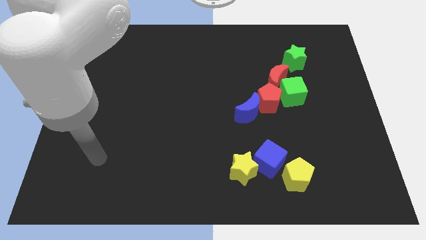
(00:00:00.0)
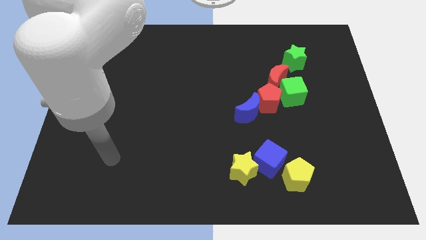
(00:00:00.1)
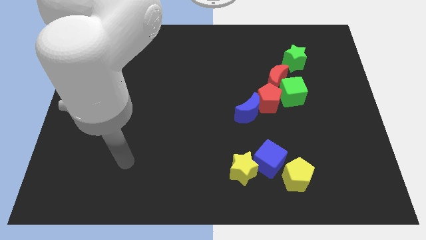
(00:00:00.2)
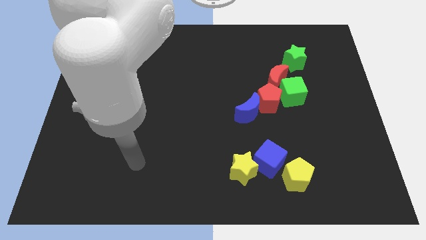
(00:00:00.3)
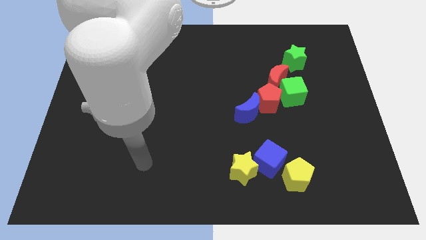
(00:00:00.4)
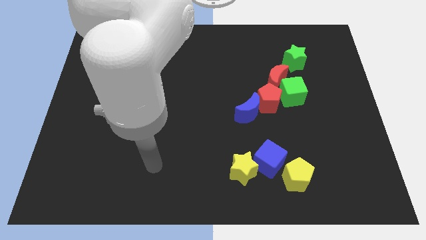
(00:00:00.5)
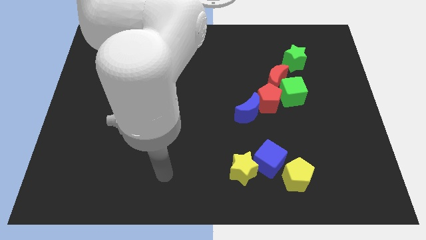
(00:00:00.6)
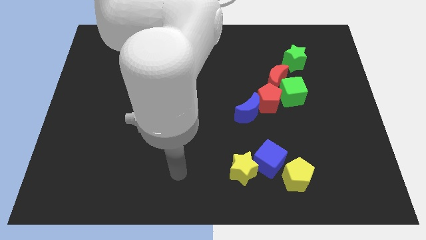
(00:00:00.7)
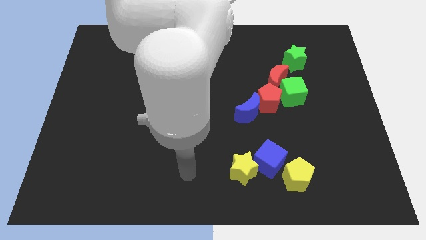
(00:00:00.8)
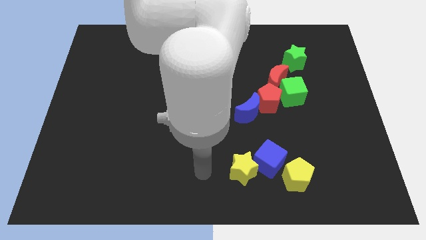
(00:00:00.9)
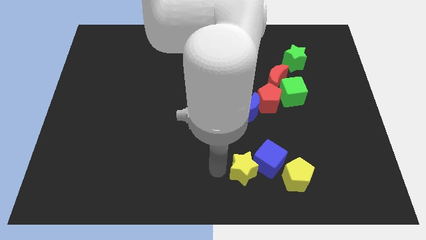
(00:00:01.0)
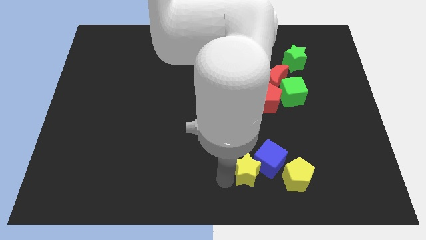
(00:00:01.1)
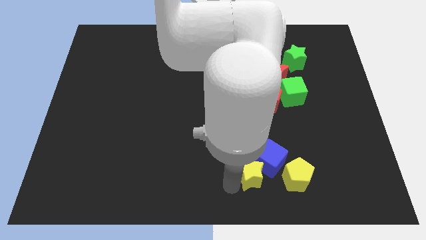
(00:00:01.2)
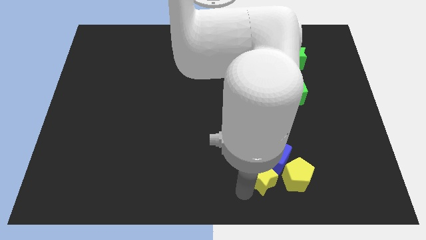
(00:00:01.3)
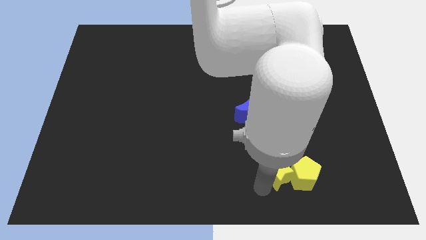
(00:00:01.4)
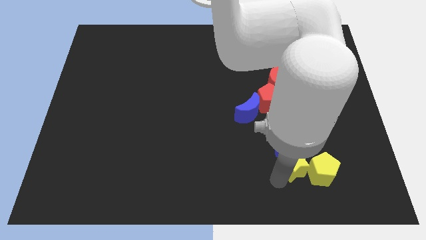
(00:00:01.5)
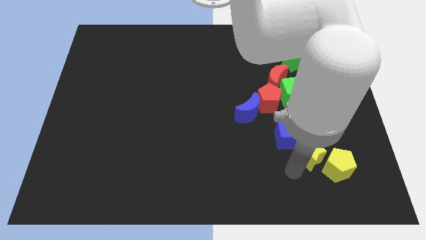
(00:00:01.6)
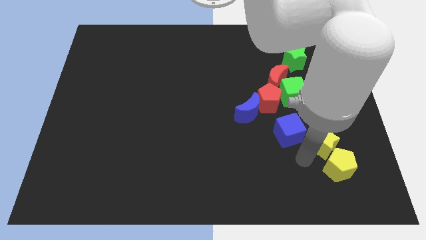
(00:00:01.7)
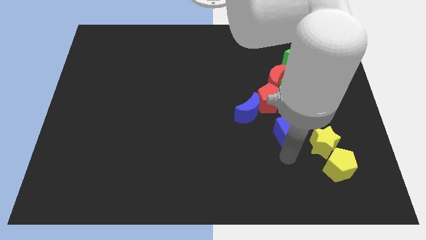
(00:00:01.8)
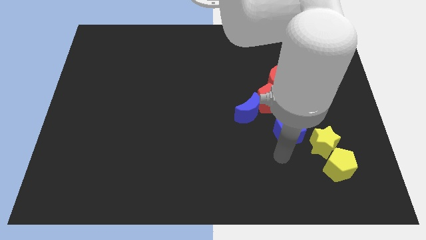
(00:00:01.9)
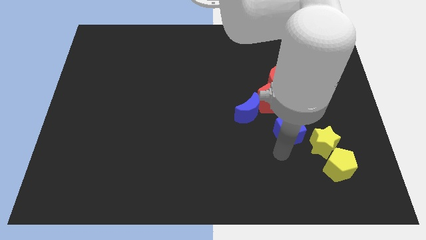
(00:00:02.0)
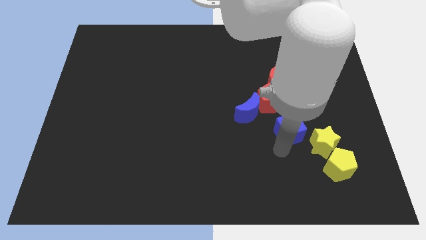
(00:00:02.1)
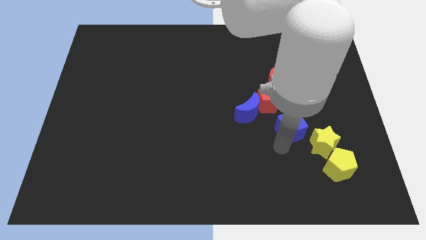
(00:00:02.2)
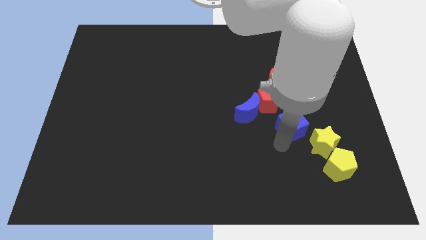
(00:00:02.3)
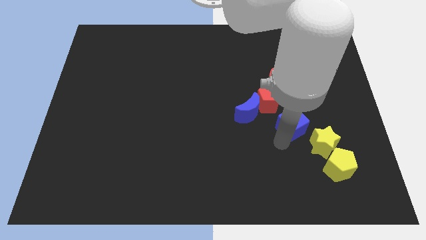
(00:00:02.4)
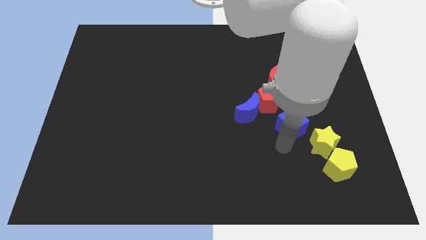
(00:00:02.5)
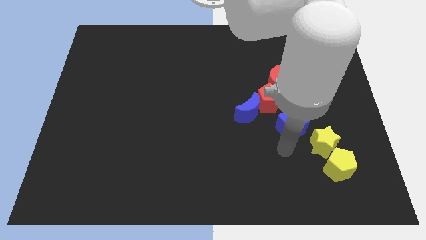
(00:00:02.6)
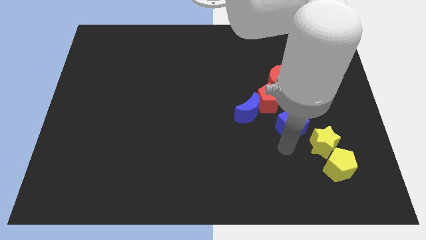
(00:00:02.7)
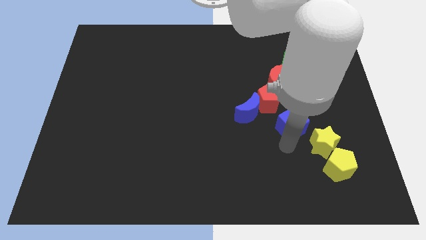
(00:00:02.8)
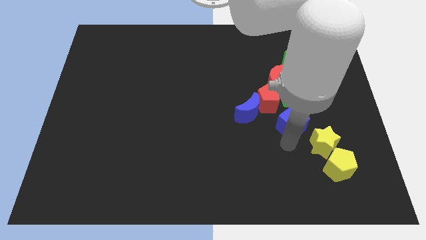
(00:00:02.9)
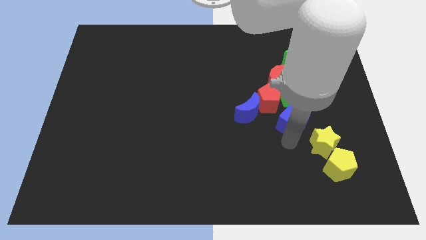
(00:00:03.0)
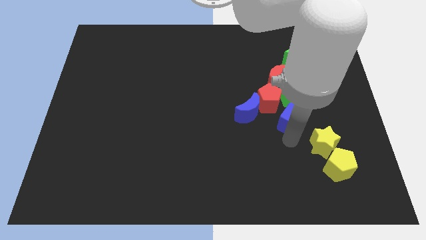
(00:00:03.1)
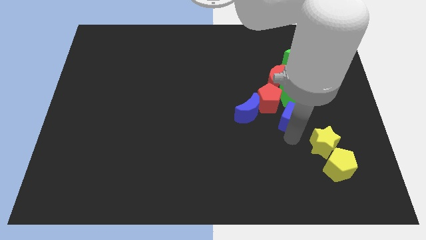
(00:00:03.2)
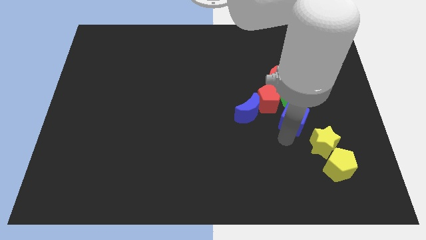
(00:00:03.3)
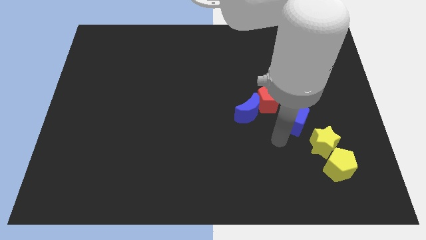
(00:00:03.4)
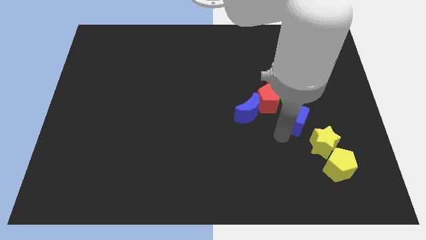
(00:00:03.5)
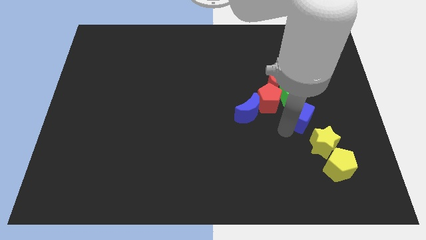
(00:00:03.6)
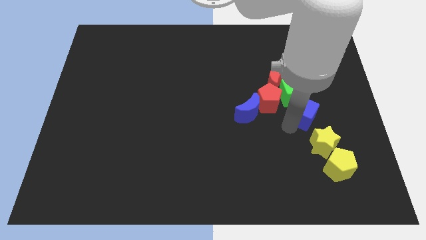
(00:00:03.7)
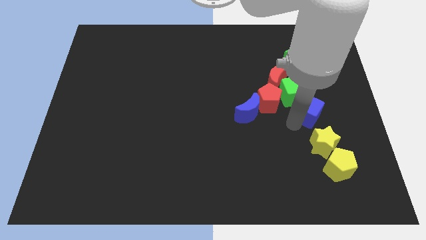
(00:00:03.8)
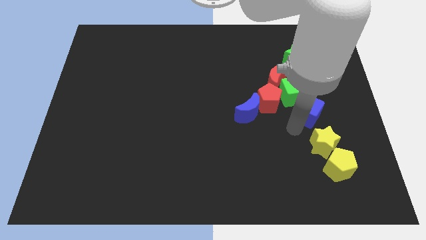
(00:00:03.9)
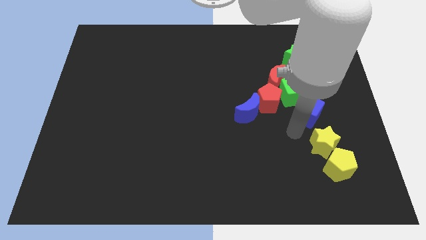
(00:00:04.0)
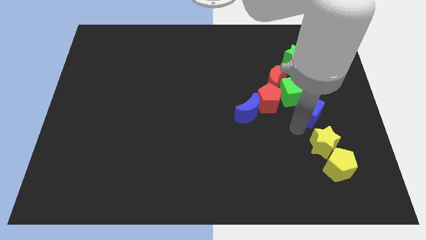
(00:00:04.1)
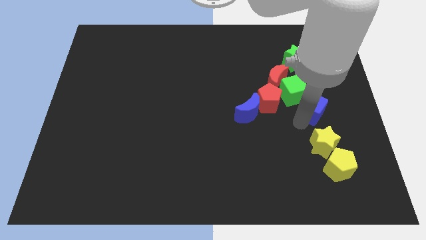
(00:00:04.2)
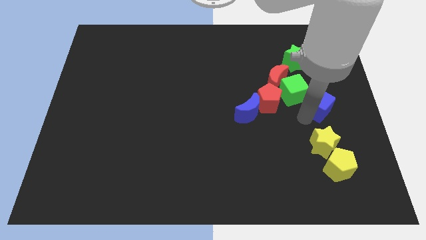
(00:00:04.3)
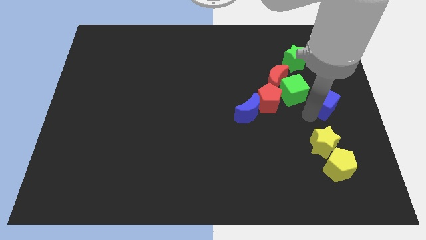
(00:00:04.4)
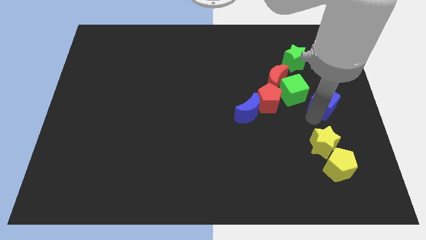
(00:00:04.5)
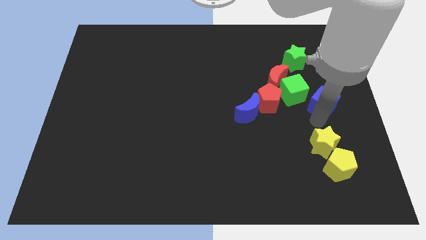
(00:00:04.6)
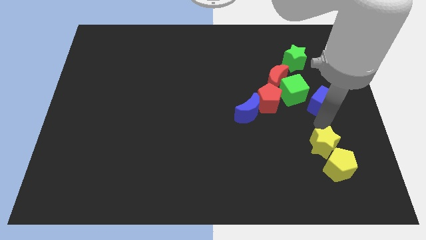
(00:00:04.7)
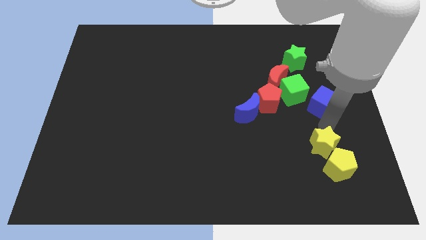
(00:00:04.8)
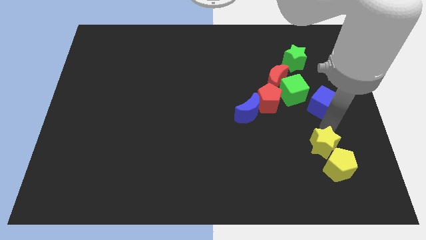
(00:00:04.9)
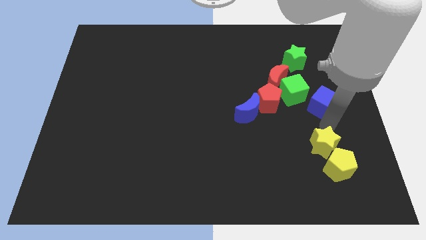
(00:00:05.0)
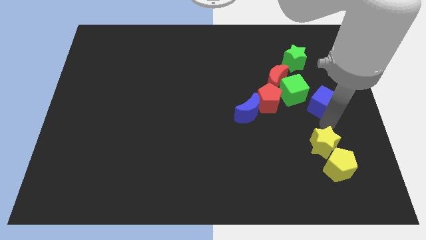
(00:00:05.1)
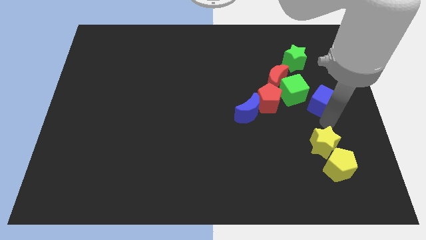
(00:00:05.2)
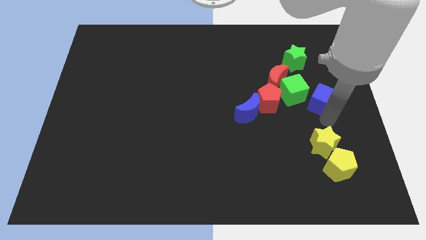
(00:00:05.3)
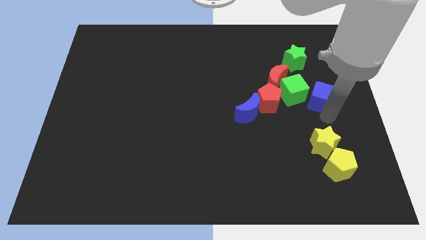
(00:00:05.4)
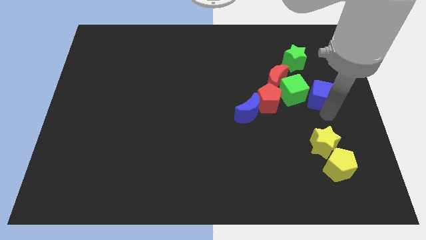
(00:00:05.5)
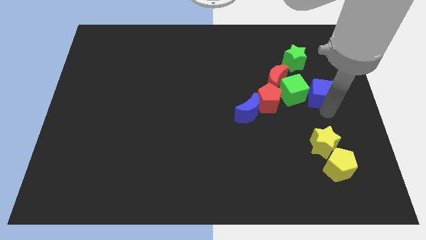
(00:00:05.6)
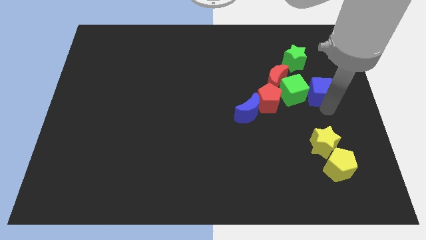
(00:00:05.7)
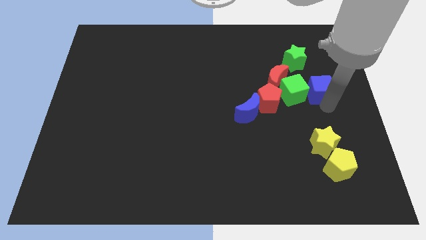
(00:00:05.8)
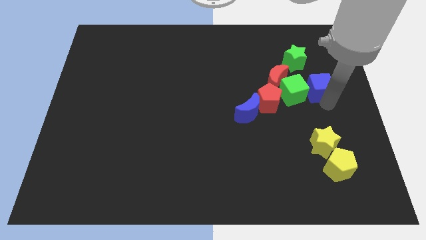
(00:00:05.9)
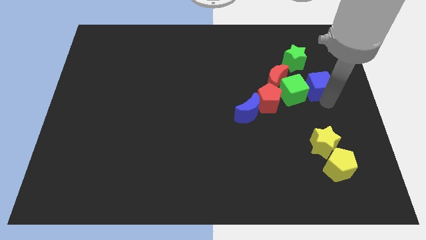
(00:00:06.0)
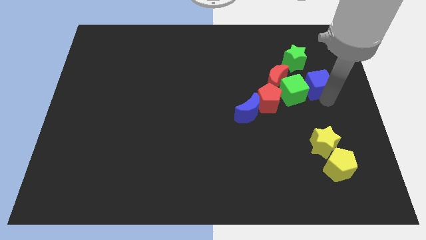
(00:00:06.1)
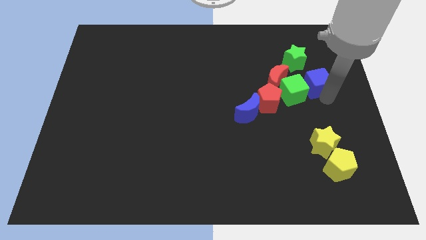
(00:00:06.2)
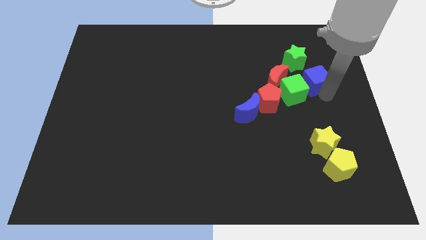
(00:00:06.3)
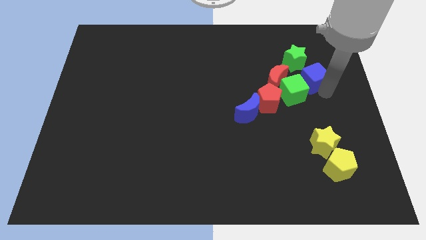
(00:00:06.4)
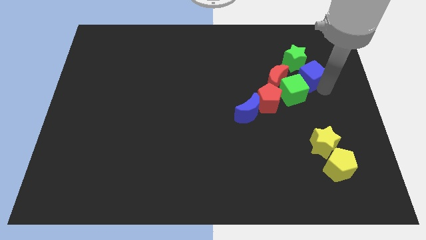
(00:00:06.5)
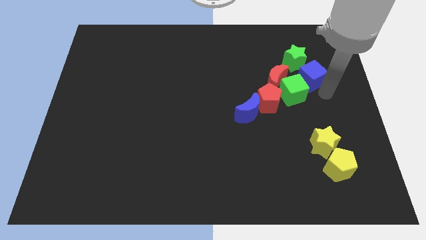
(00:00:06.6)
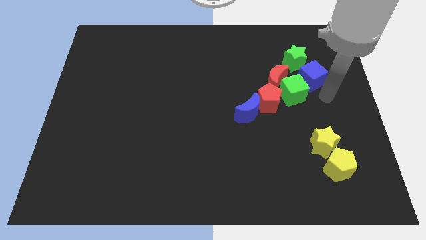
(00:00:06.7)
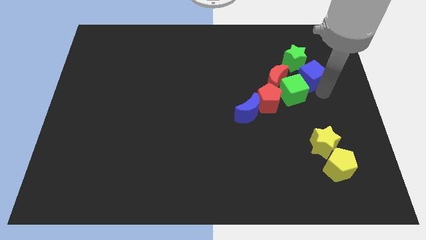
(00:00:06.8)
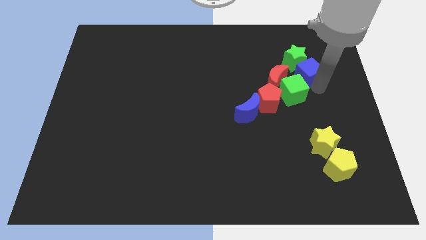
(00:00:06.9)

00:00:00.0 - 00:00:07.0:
slide the blue cube close to the green star

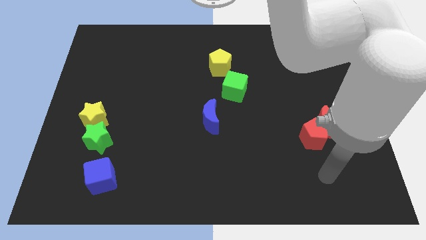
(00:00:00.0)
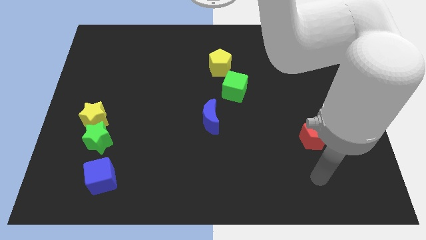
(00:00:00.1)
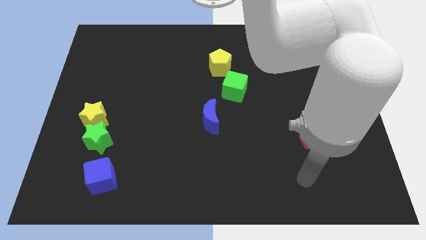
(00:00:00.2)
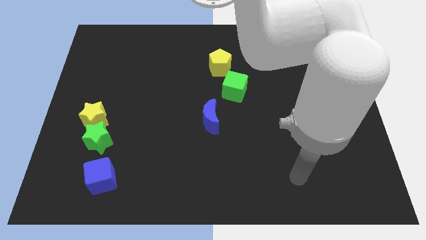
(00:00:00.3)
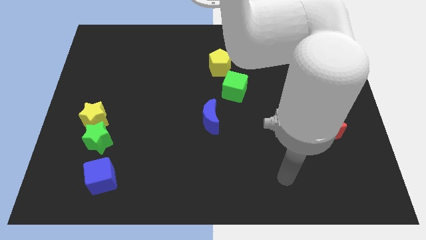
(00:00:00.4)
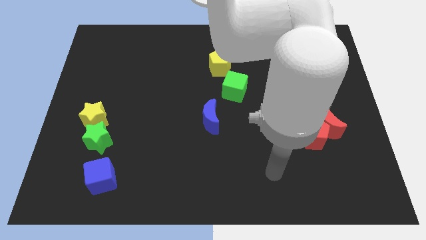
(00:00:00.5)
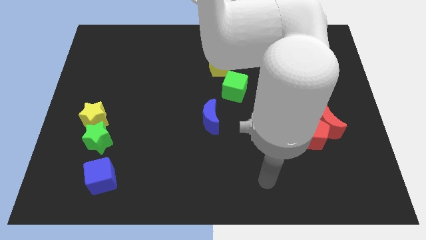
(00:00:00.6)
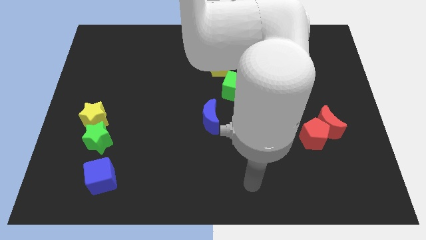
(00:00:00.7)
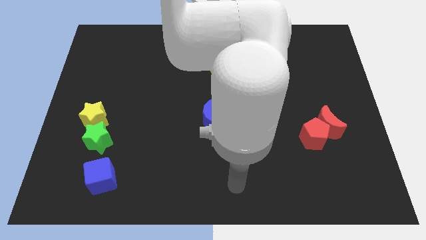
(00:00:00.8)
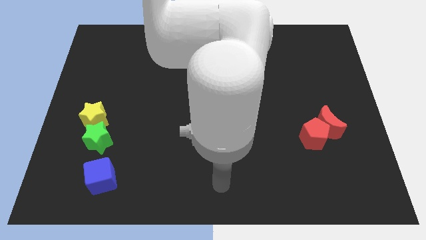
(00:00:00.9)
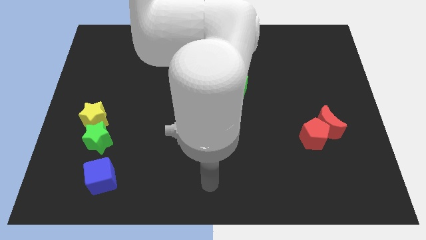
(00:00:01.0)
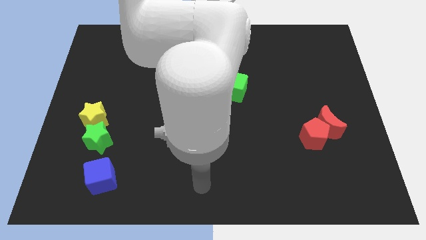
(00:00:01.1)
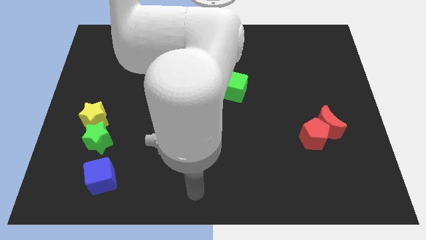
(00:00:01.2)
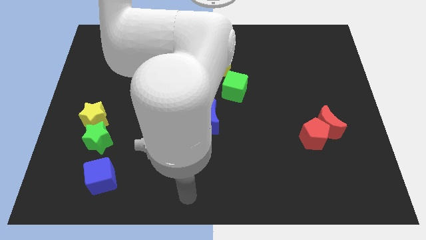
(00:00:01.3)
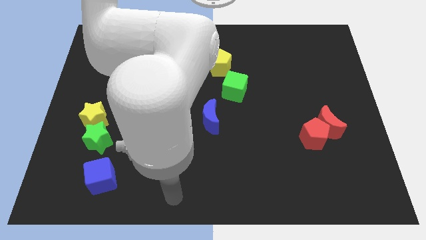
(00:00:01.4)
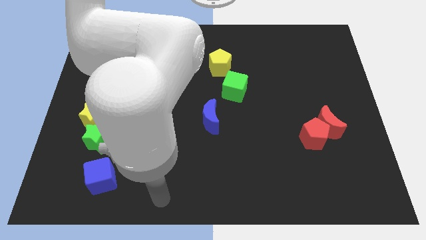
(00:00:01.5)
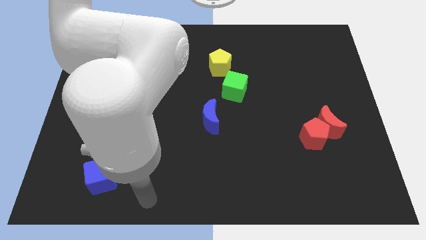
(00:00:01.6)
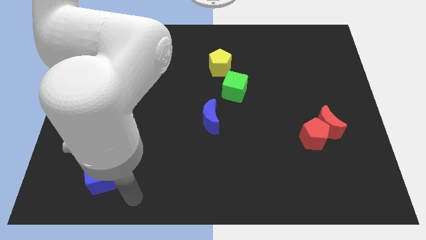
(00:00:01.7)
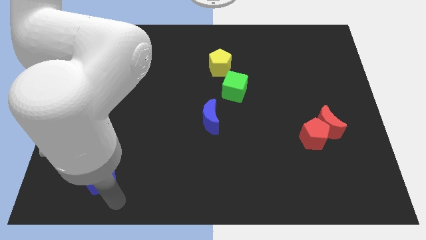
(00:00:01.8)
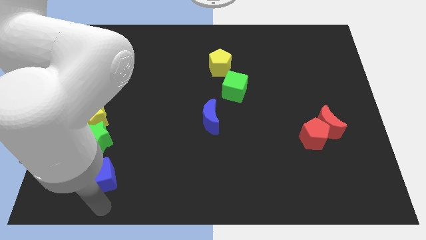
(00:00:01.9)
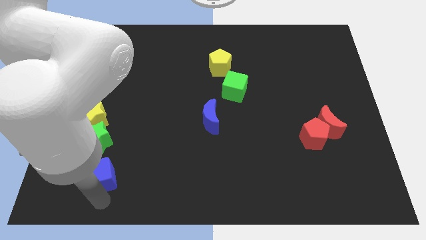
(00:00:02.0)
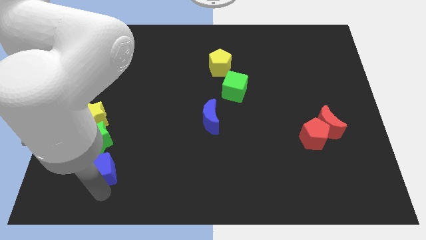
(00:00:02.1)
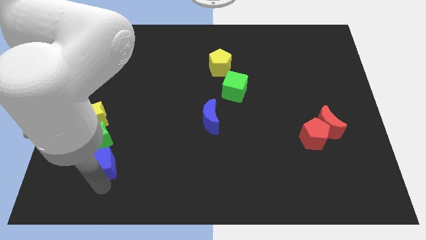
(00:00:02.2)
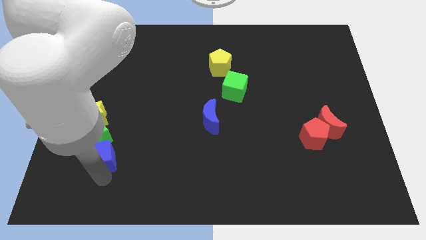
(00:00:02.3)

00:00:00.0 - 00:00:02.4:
push the blue cube to the green star
